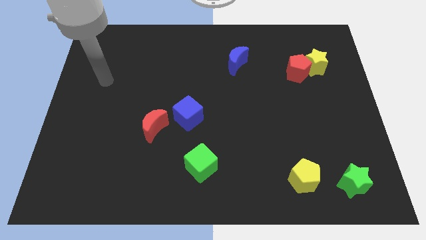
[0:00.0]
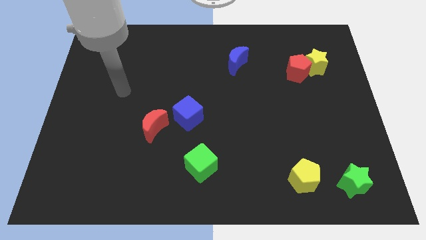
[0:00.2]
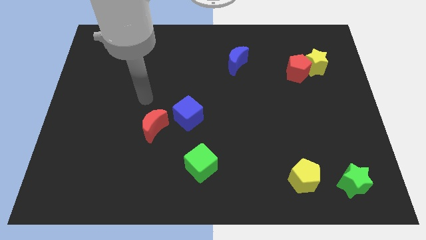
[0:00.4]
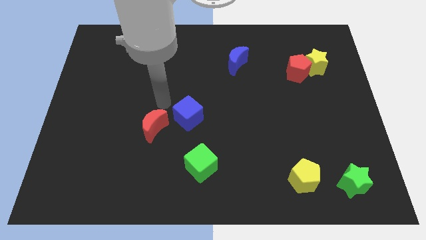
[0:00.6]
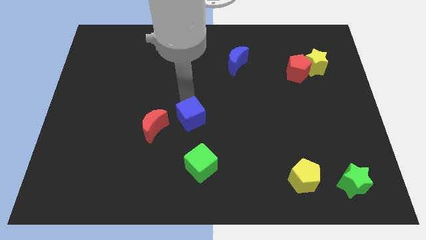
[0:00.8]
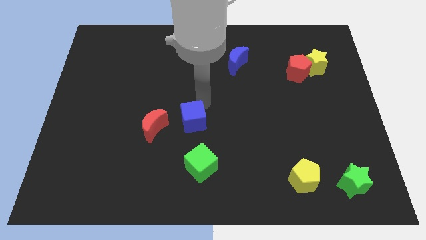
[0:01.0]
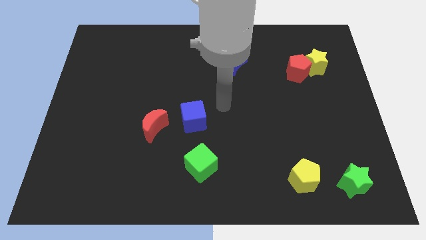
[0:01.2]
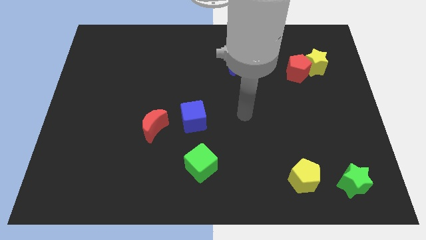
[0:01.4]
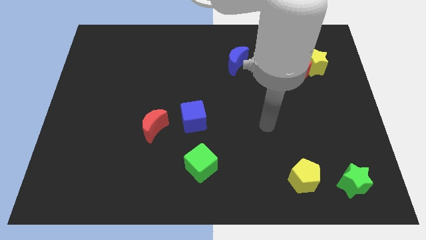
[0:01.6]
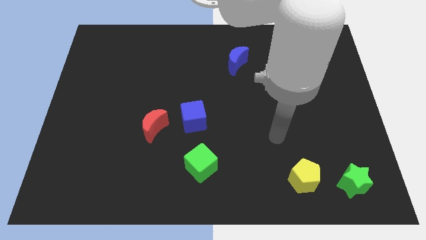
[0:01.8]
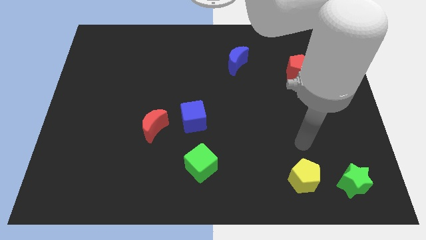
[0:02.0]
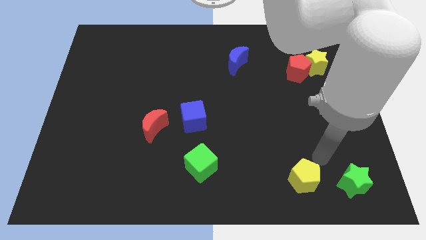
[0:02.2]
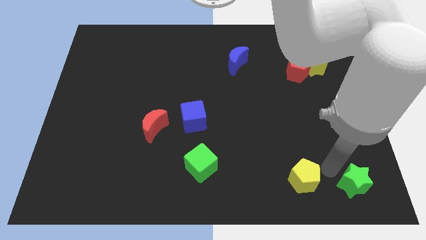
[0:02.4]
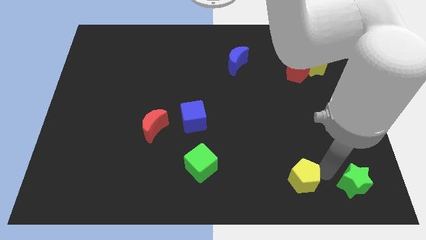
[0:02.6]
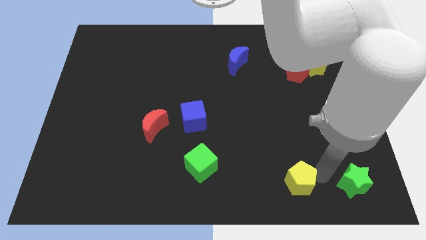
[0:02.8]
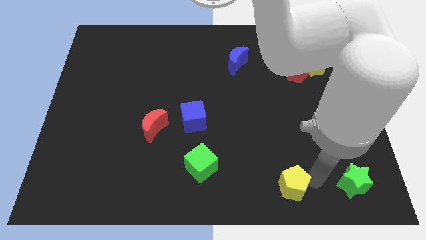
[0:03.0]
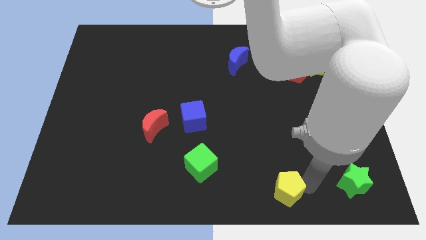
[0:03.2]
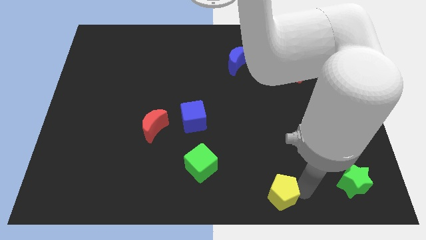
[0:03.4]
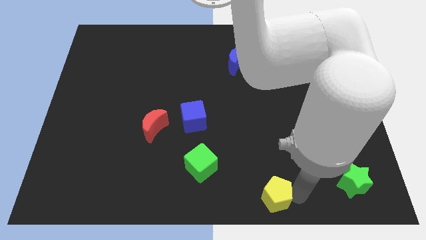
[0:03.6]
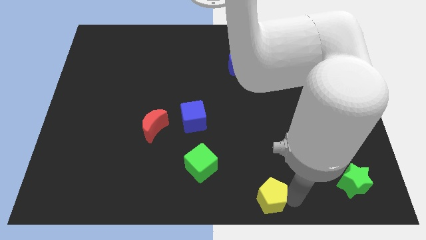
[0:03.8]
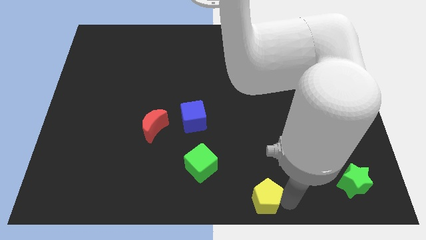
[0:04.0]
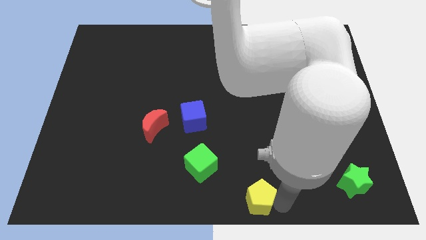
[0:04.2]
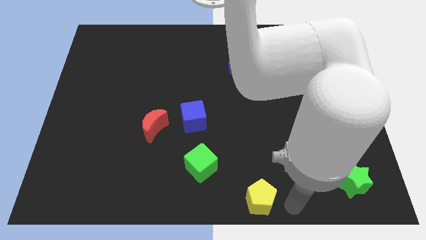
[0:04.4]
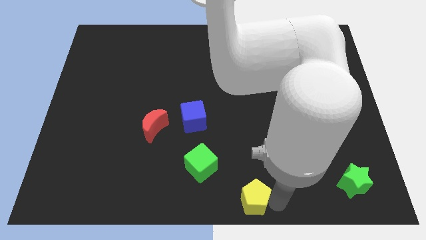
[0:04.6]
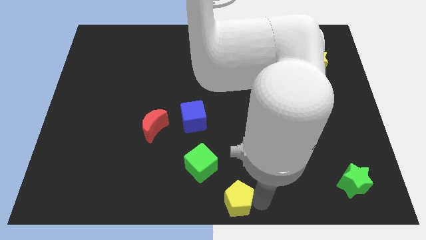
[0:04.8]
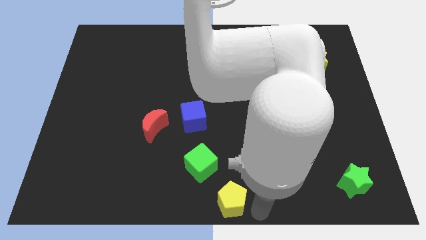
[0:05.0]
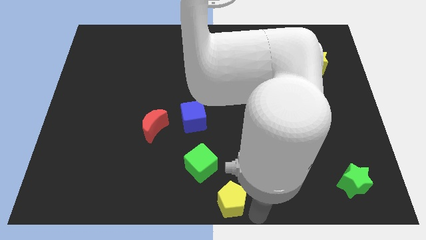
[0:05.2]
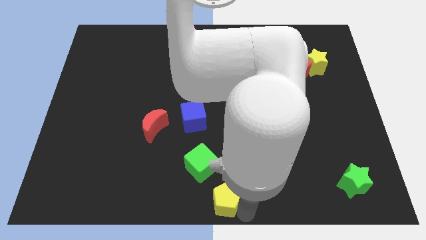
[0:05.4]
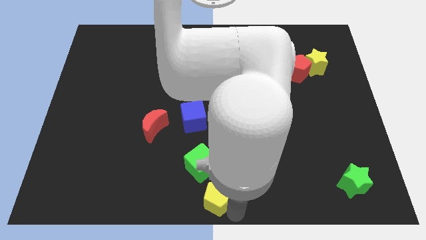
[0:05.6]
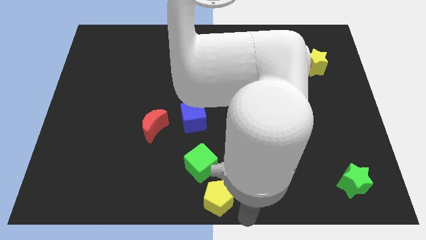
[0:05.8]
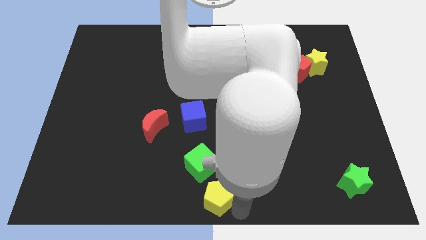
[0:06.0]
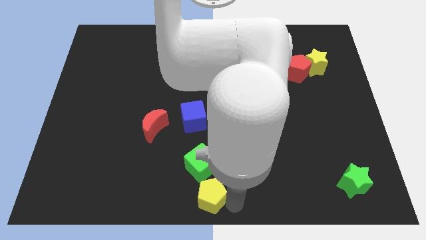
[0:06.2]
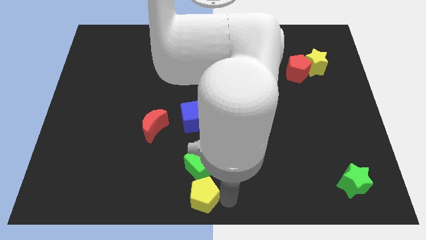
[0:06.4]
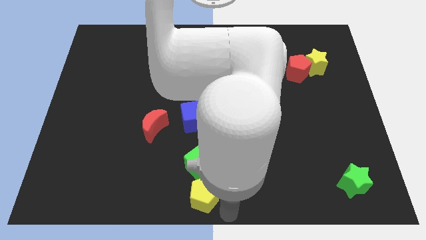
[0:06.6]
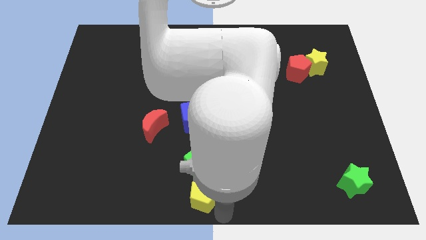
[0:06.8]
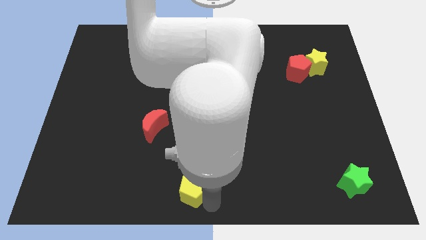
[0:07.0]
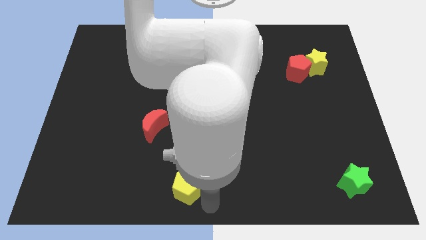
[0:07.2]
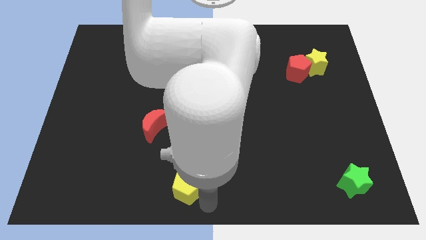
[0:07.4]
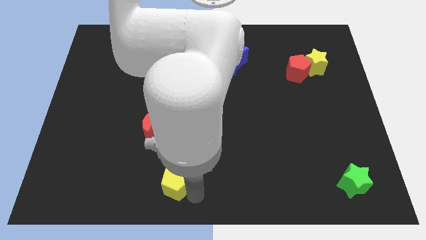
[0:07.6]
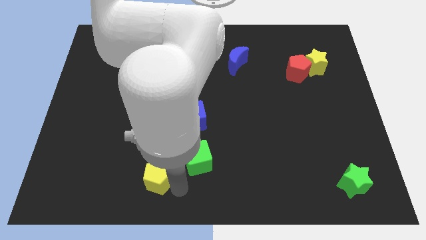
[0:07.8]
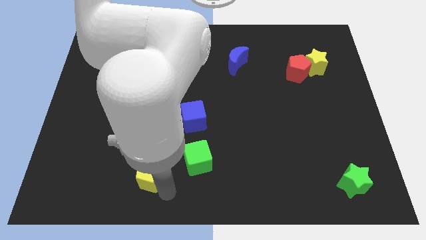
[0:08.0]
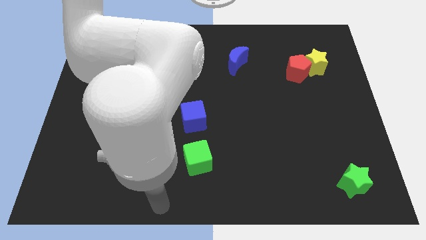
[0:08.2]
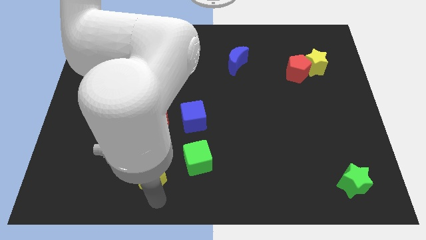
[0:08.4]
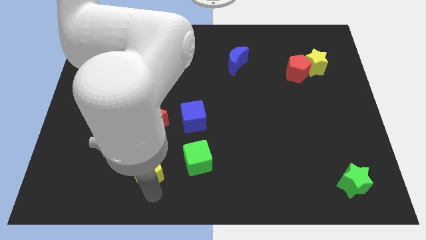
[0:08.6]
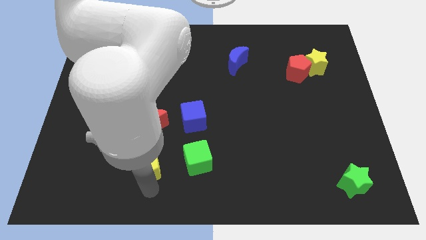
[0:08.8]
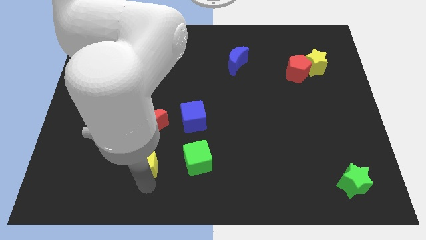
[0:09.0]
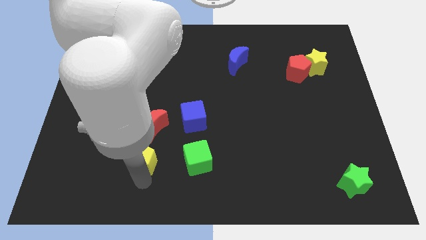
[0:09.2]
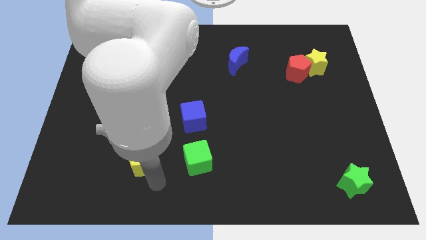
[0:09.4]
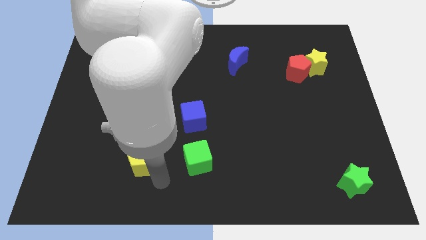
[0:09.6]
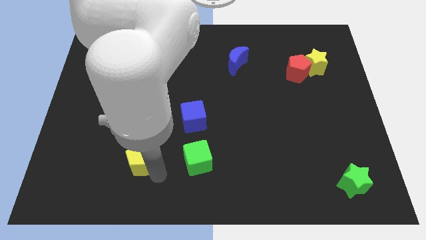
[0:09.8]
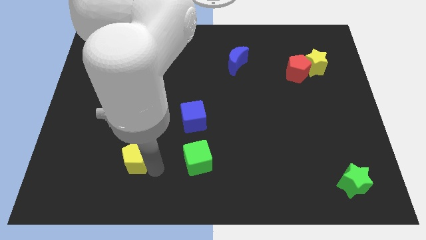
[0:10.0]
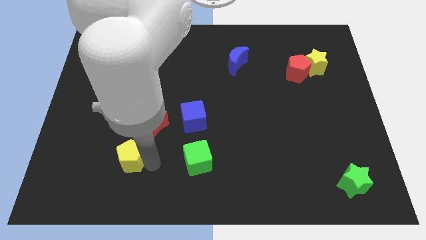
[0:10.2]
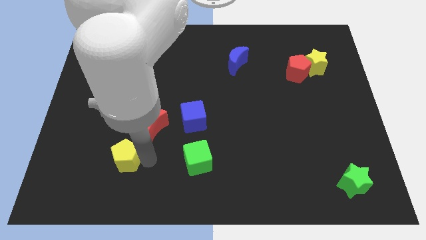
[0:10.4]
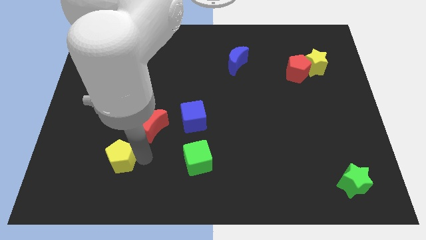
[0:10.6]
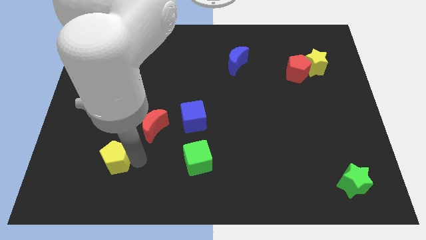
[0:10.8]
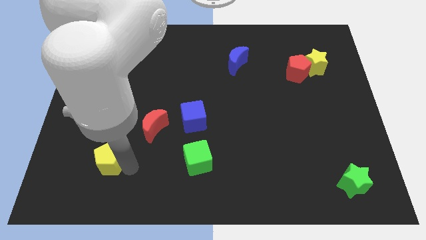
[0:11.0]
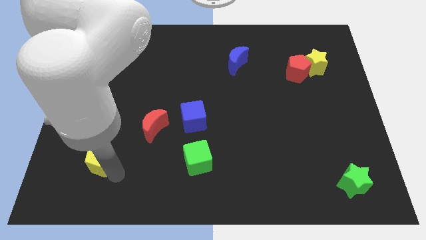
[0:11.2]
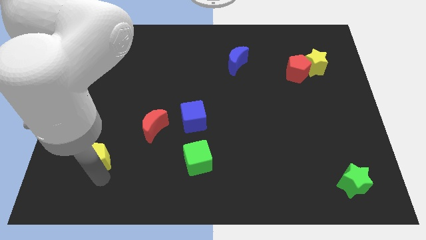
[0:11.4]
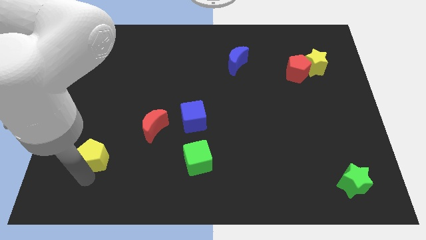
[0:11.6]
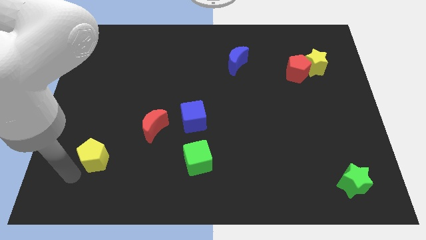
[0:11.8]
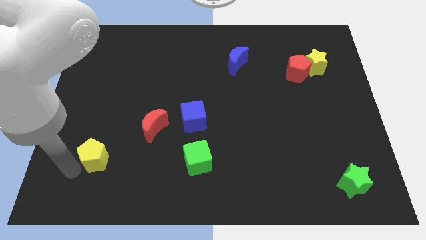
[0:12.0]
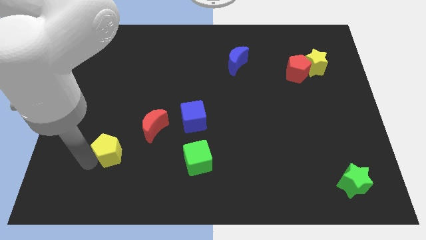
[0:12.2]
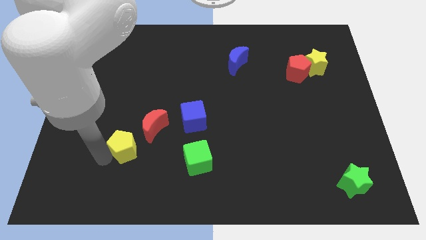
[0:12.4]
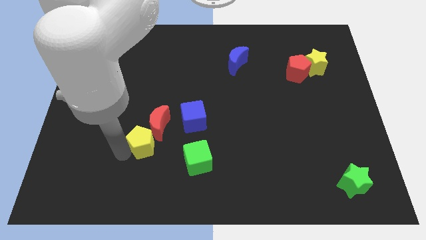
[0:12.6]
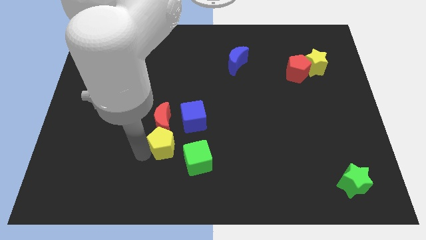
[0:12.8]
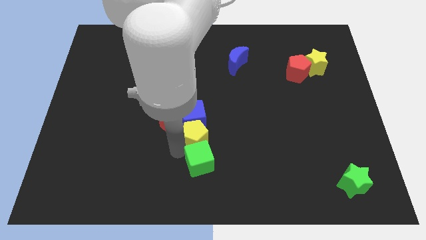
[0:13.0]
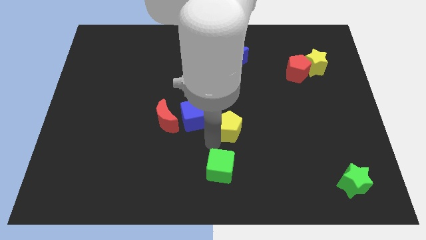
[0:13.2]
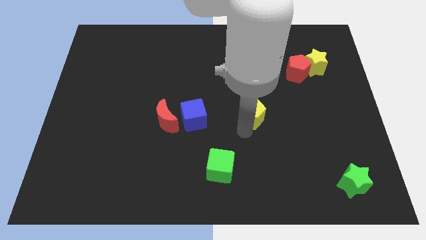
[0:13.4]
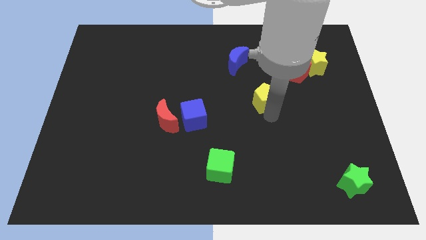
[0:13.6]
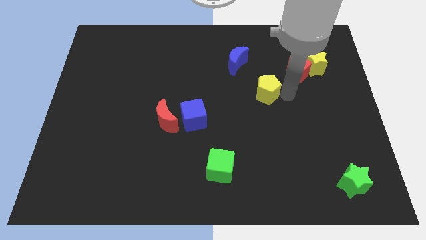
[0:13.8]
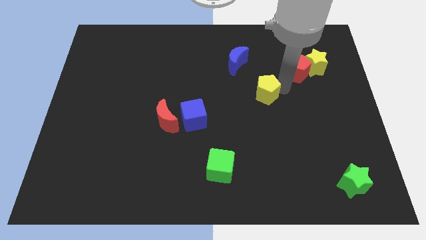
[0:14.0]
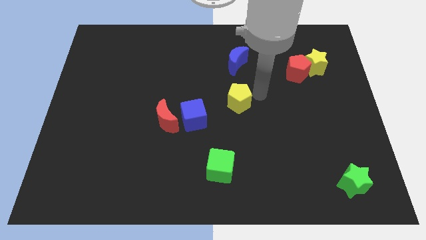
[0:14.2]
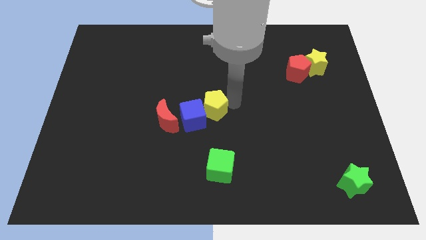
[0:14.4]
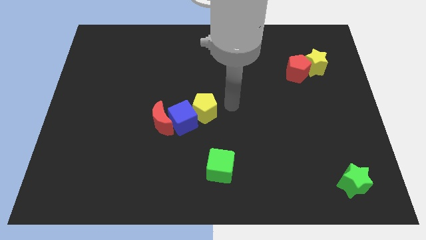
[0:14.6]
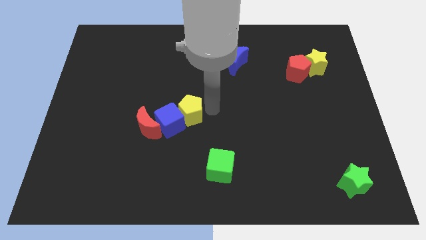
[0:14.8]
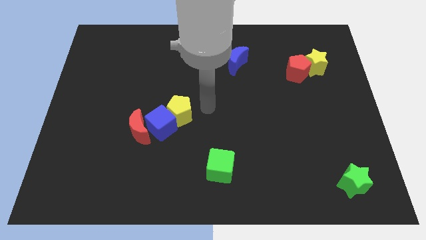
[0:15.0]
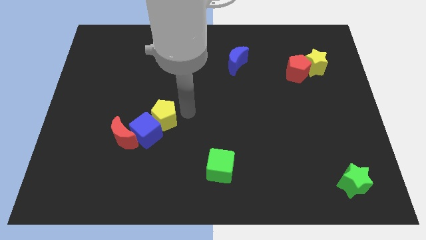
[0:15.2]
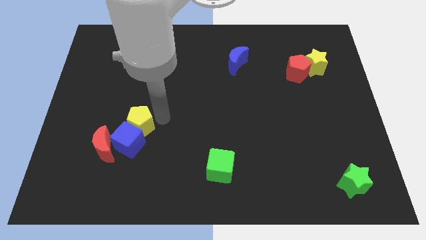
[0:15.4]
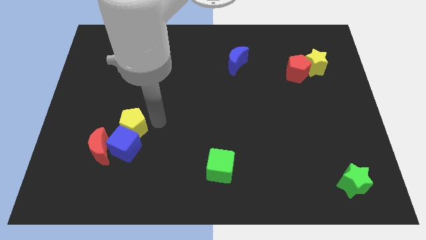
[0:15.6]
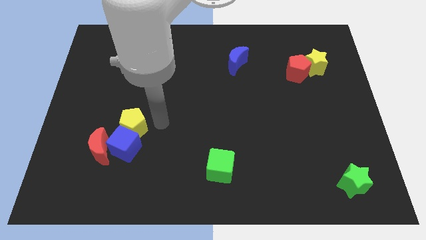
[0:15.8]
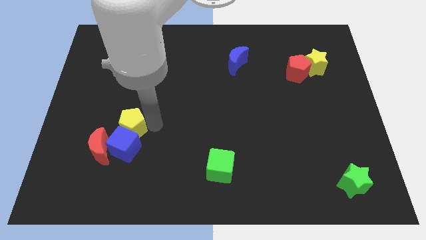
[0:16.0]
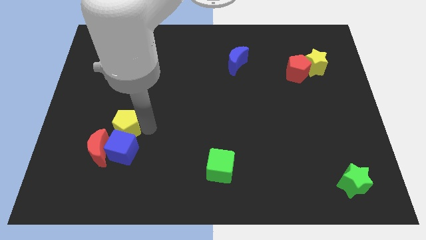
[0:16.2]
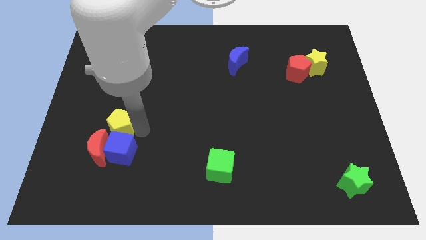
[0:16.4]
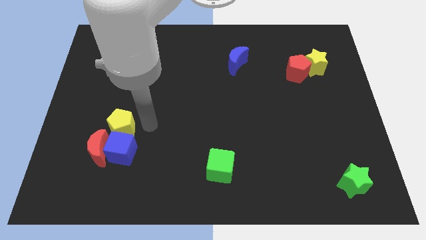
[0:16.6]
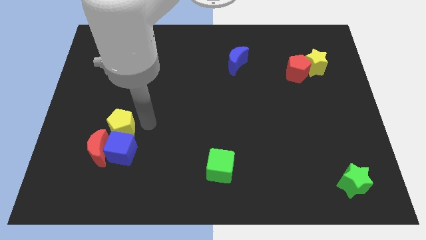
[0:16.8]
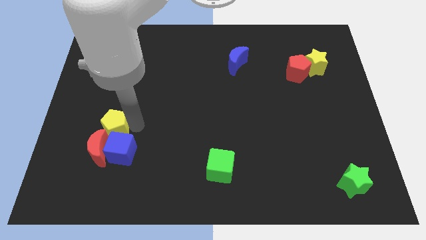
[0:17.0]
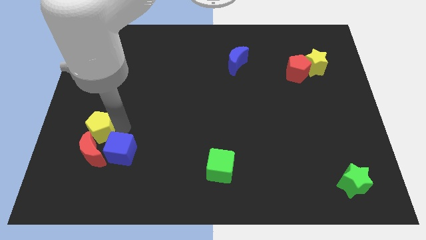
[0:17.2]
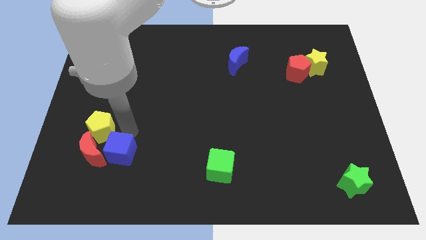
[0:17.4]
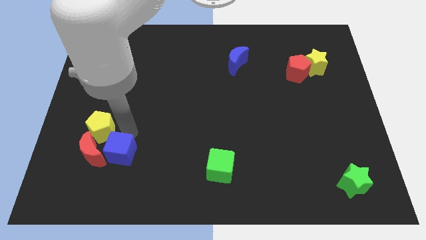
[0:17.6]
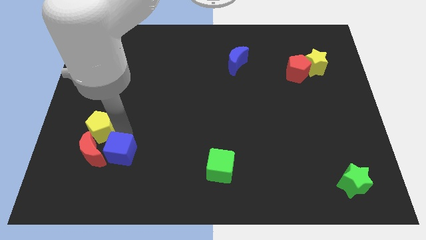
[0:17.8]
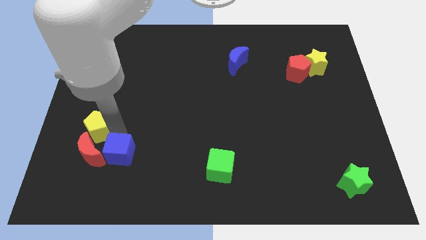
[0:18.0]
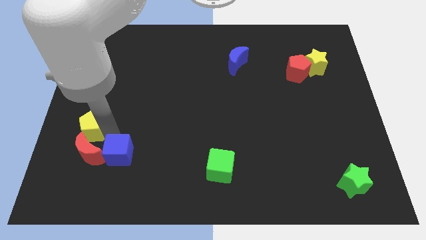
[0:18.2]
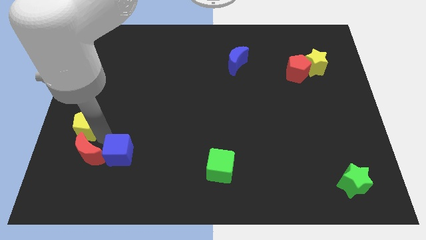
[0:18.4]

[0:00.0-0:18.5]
put the yellow pentagon to the left side
